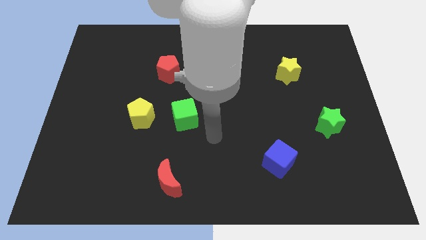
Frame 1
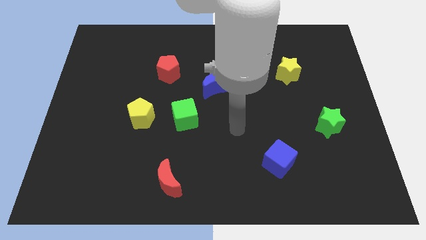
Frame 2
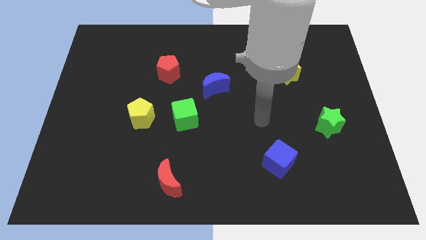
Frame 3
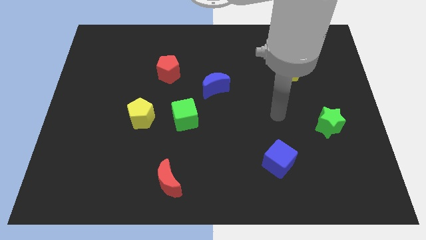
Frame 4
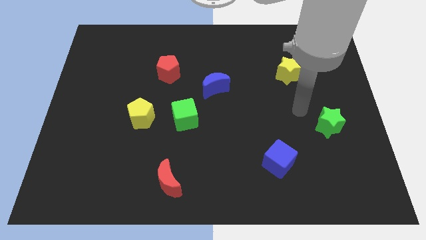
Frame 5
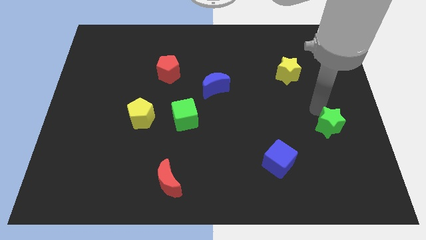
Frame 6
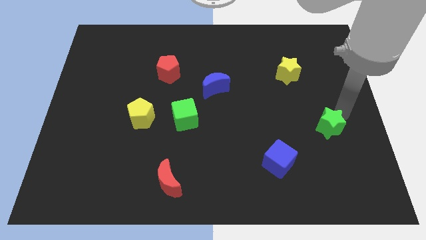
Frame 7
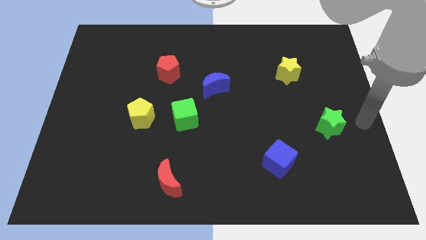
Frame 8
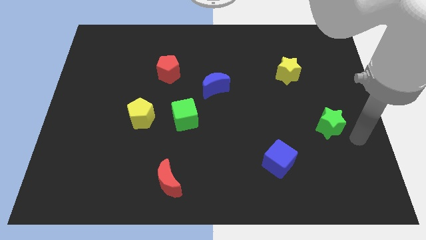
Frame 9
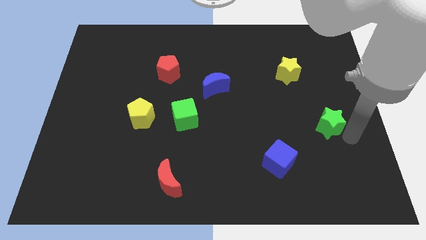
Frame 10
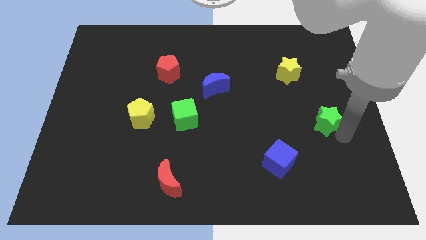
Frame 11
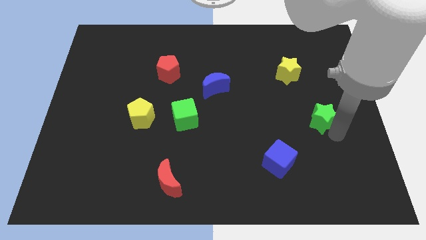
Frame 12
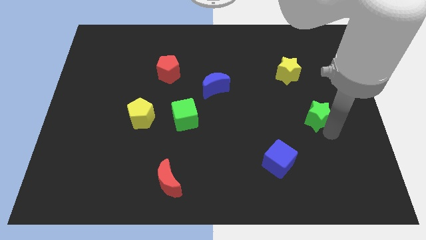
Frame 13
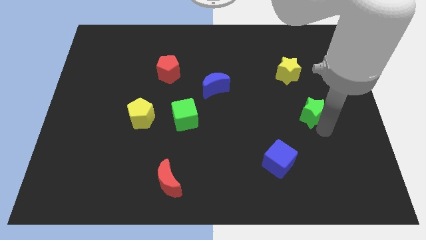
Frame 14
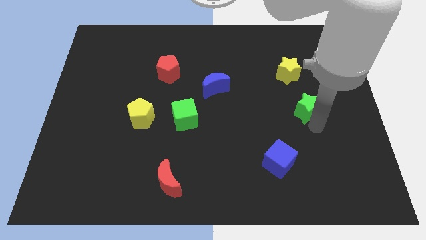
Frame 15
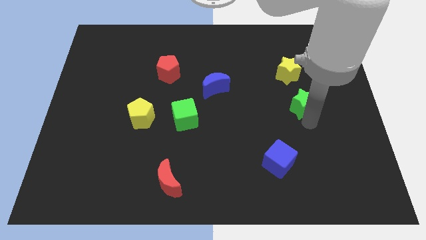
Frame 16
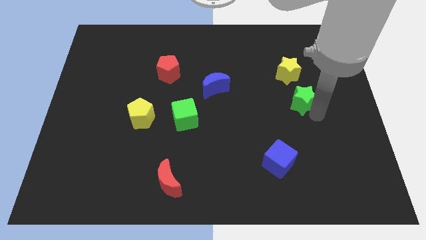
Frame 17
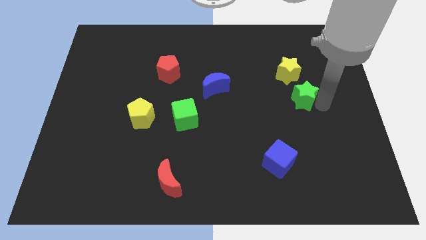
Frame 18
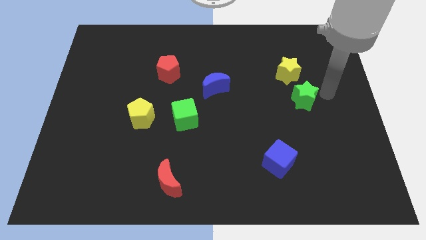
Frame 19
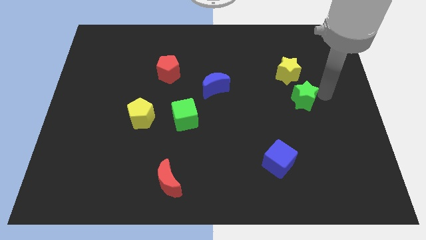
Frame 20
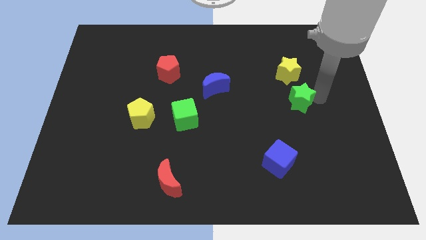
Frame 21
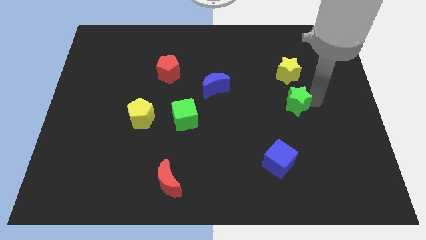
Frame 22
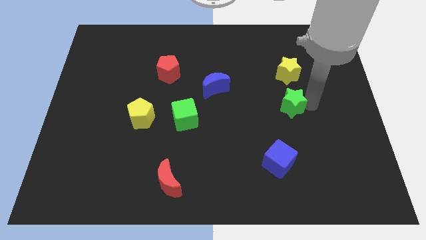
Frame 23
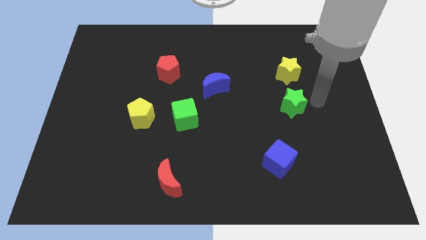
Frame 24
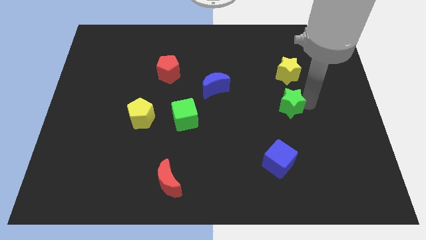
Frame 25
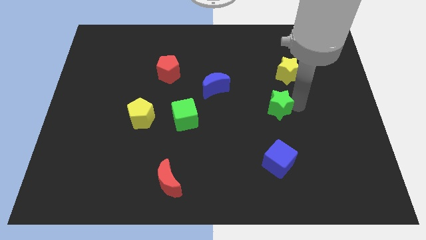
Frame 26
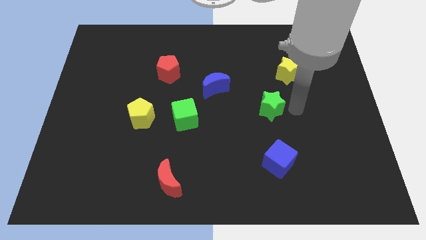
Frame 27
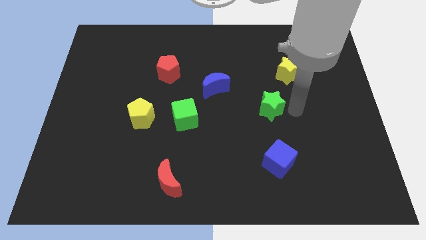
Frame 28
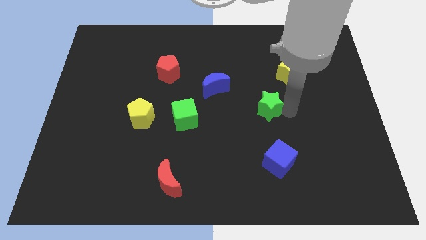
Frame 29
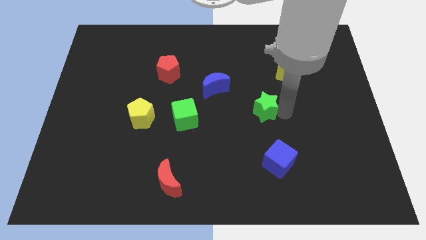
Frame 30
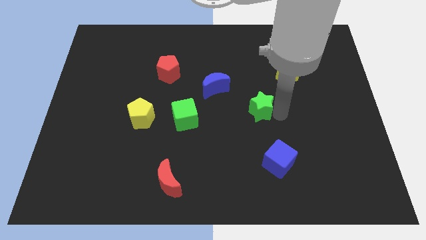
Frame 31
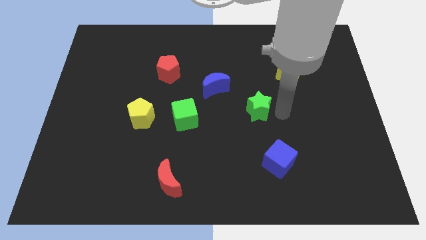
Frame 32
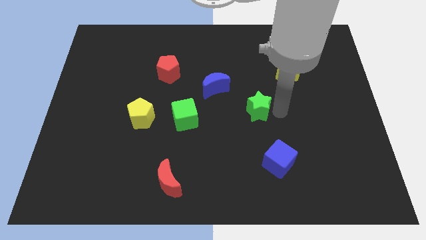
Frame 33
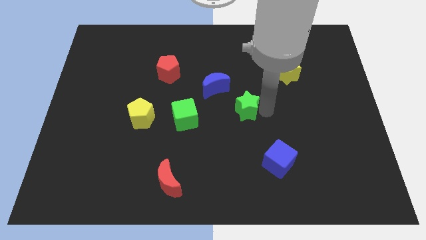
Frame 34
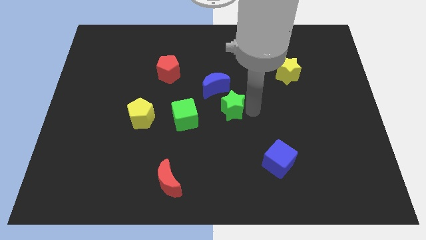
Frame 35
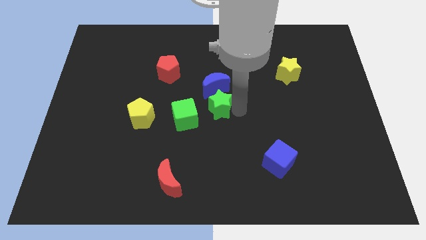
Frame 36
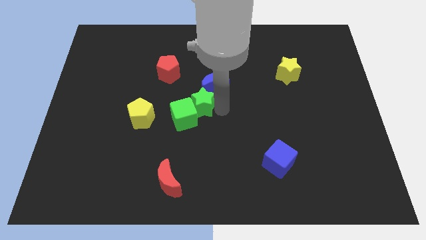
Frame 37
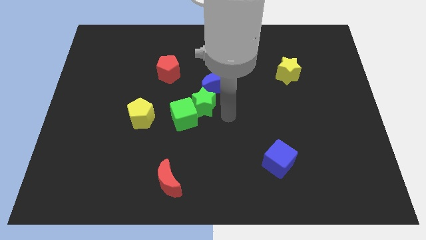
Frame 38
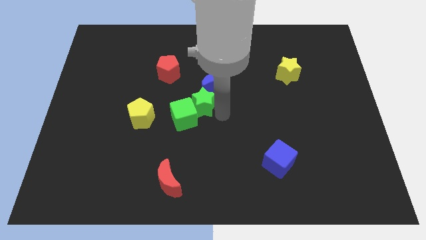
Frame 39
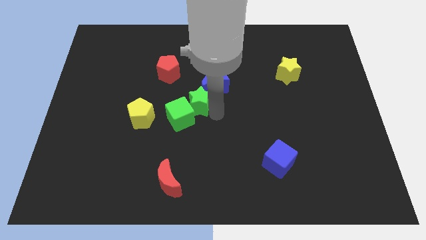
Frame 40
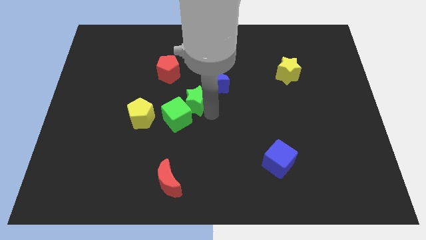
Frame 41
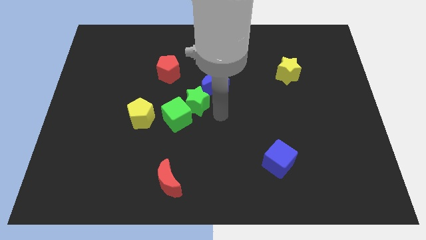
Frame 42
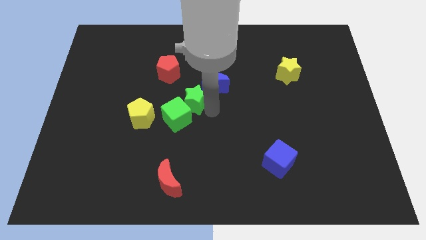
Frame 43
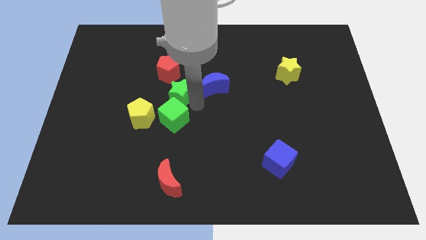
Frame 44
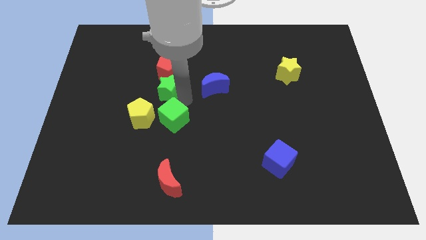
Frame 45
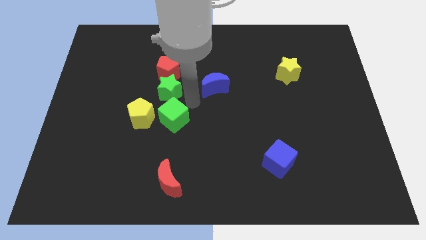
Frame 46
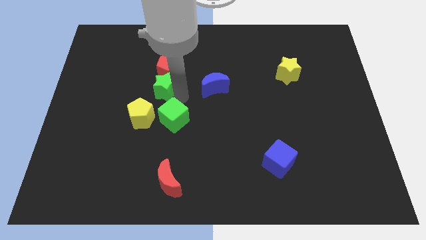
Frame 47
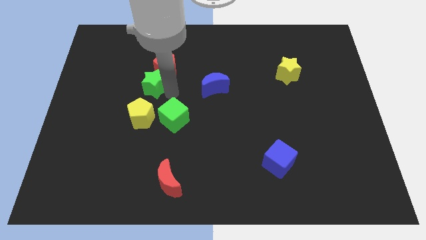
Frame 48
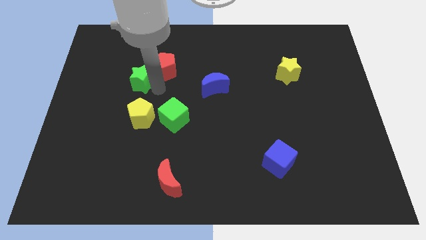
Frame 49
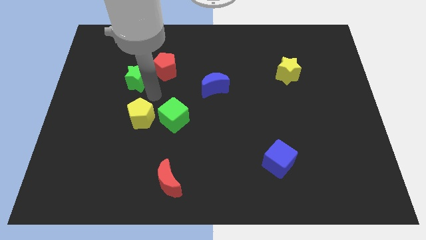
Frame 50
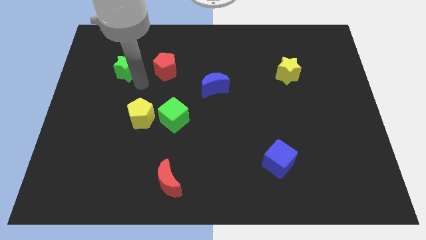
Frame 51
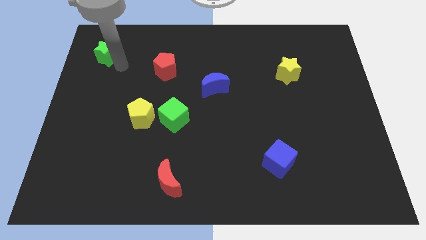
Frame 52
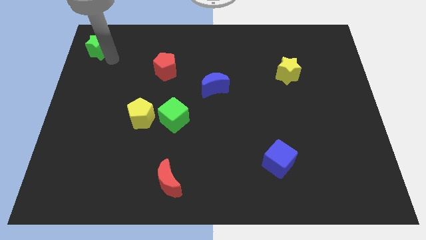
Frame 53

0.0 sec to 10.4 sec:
put the green star to the top left of the board

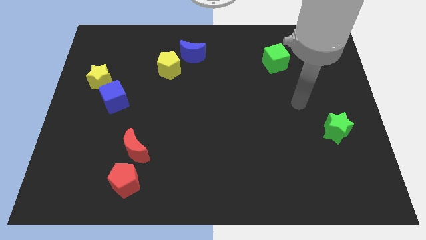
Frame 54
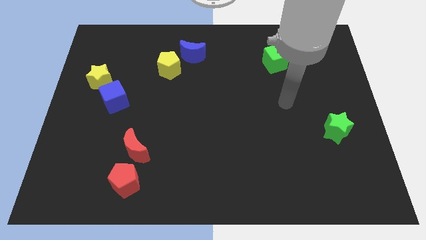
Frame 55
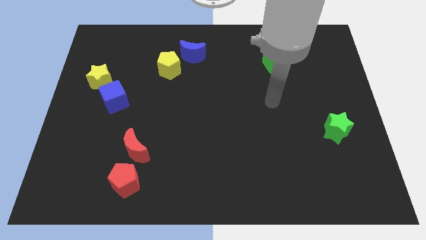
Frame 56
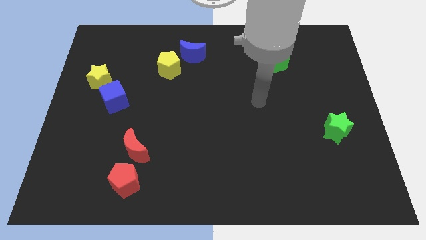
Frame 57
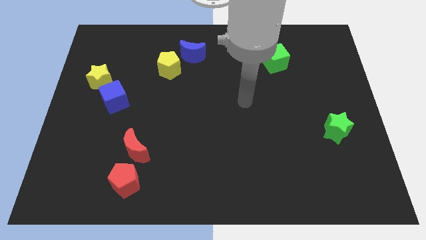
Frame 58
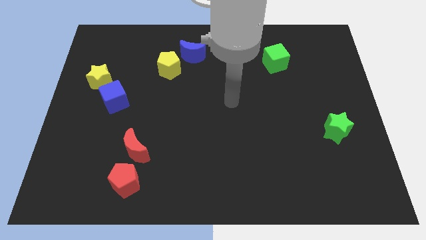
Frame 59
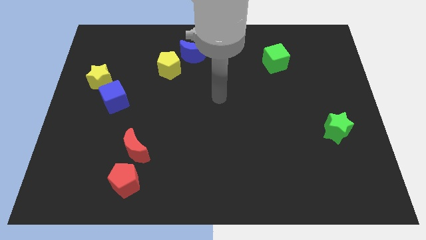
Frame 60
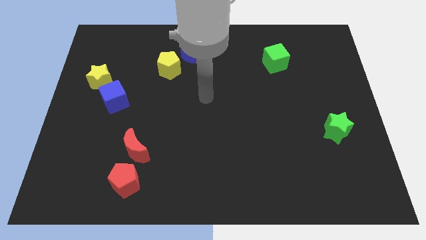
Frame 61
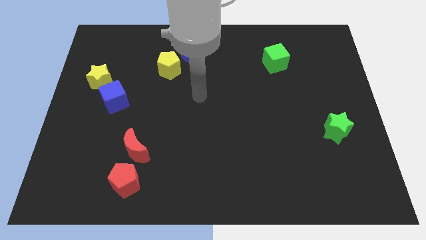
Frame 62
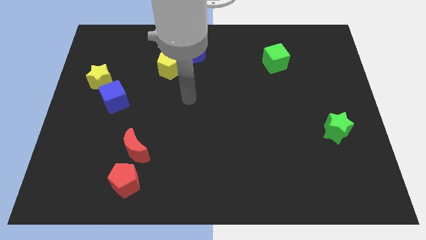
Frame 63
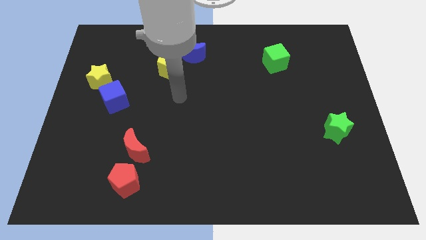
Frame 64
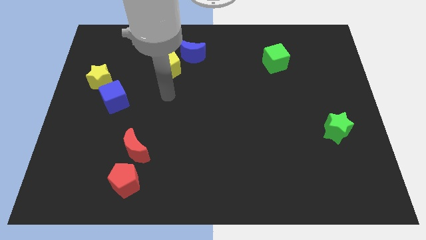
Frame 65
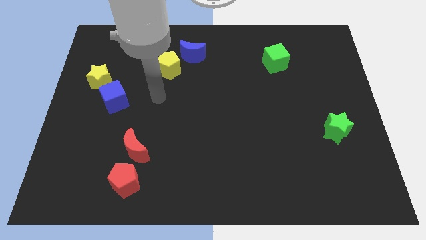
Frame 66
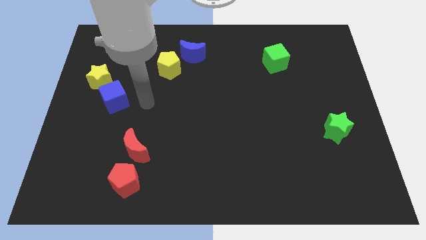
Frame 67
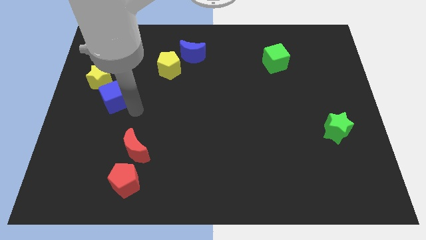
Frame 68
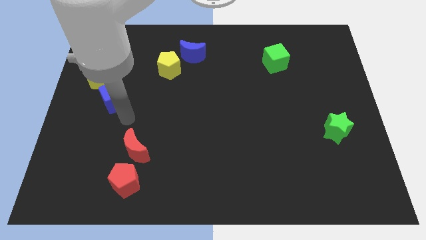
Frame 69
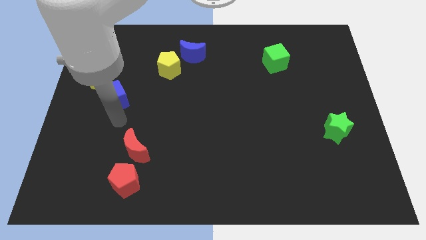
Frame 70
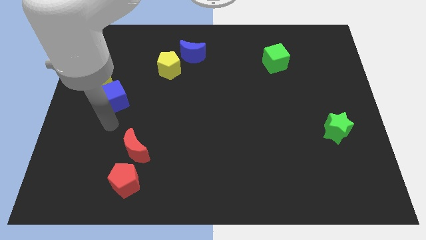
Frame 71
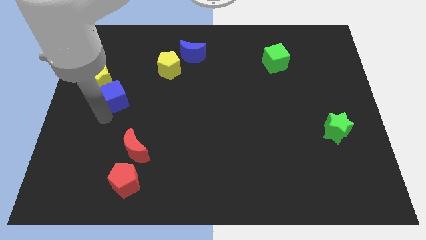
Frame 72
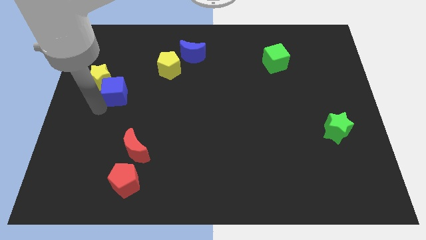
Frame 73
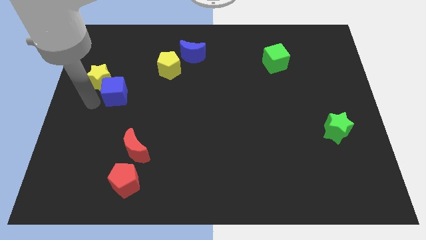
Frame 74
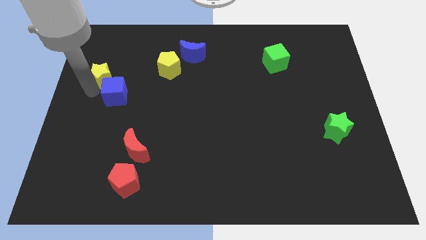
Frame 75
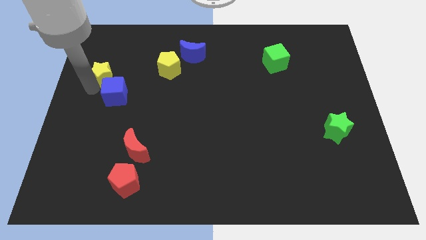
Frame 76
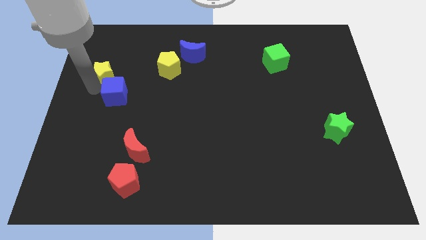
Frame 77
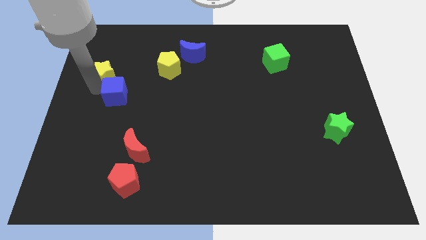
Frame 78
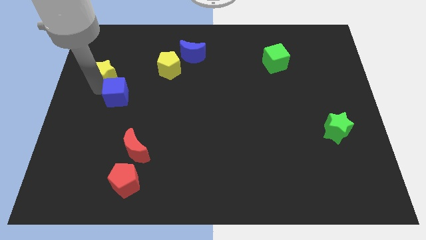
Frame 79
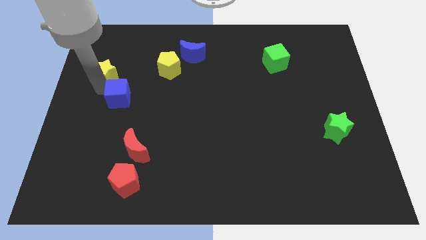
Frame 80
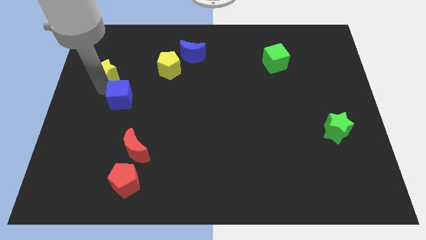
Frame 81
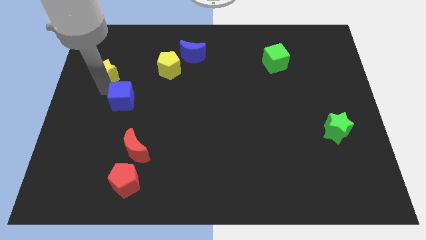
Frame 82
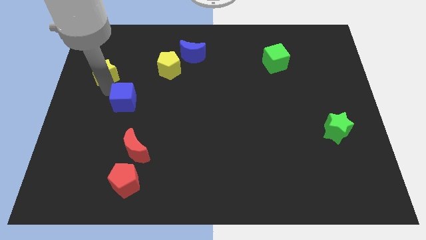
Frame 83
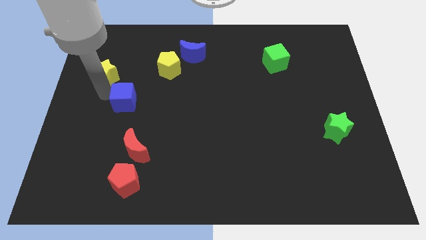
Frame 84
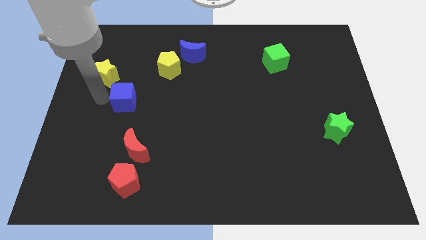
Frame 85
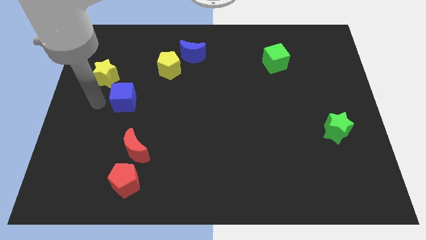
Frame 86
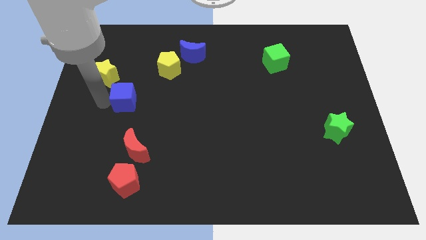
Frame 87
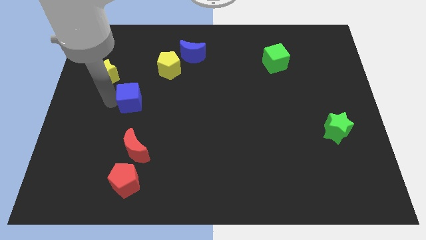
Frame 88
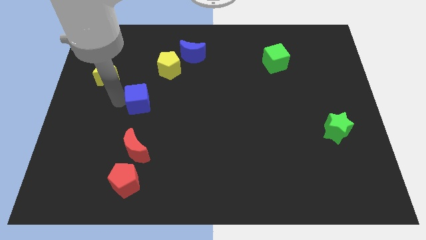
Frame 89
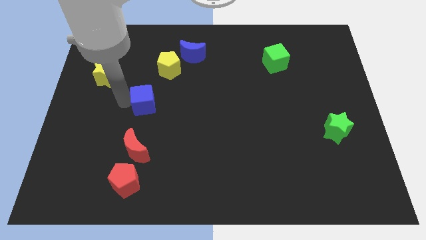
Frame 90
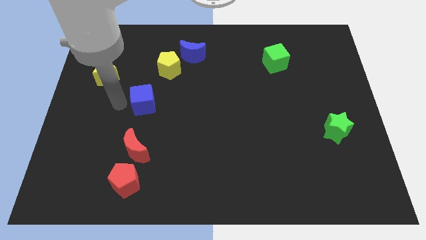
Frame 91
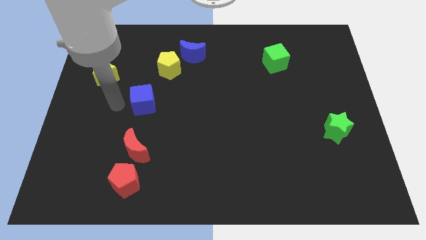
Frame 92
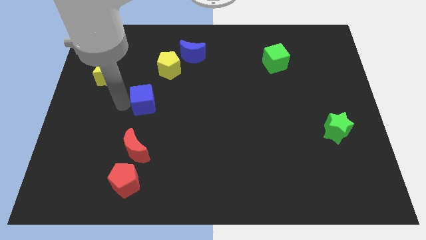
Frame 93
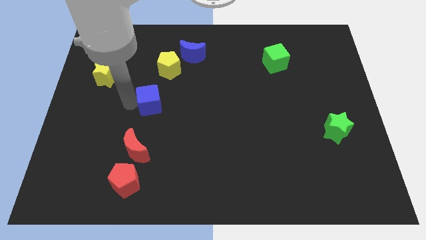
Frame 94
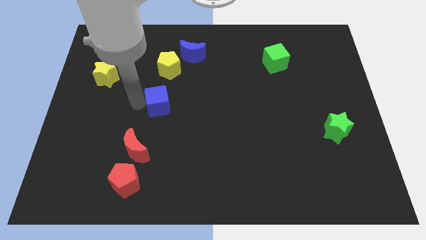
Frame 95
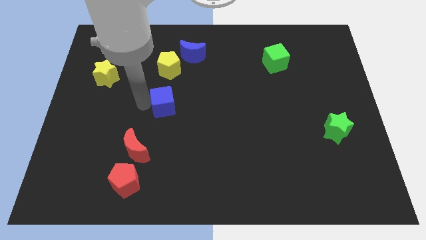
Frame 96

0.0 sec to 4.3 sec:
put the blue cube to the center of the board
